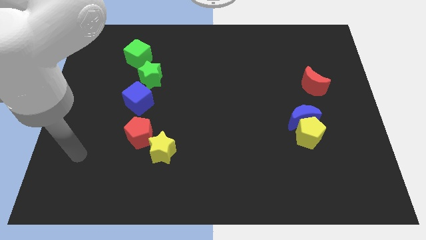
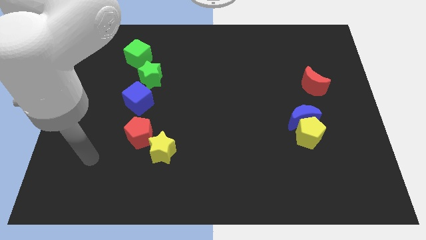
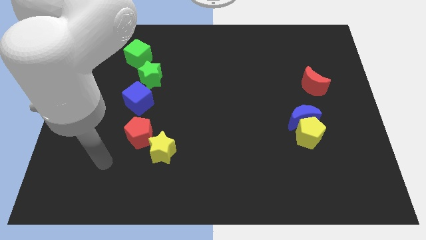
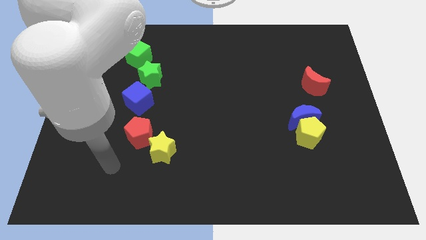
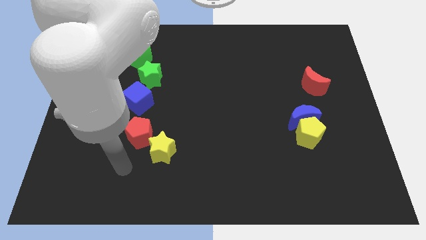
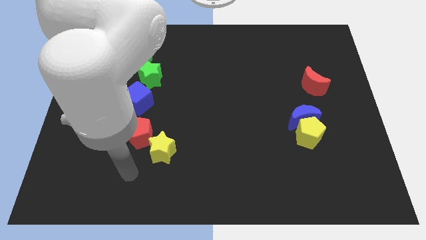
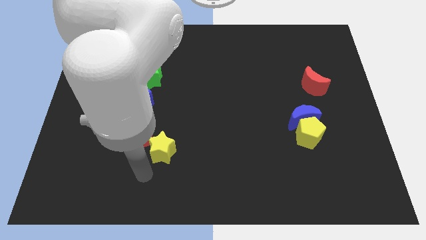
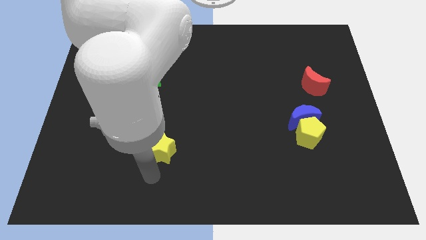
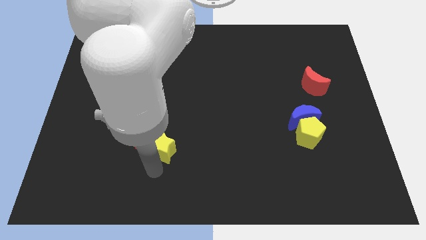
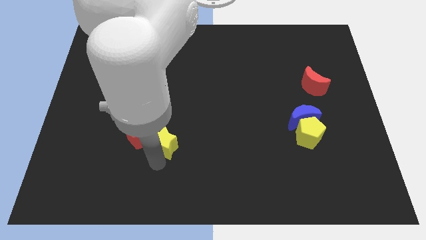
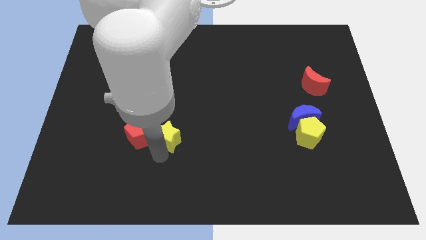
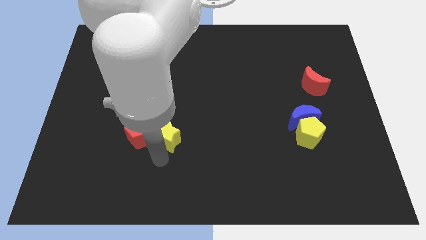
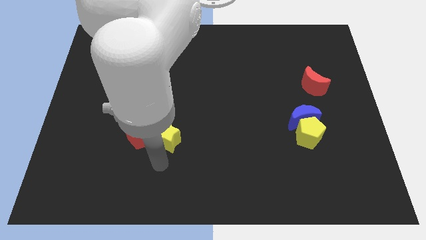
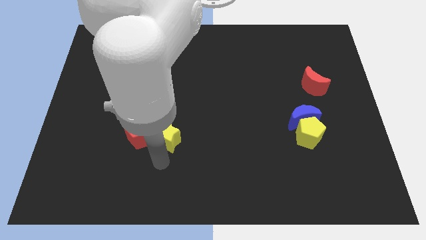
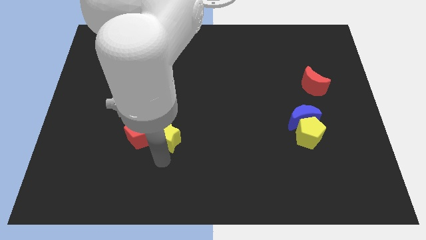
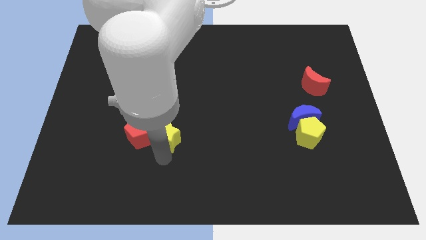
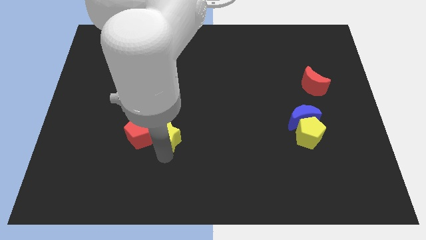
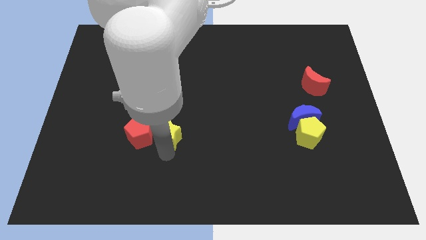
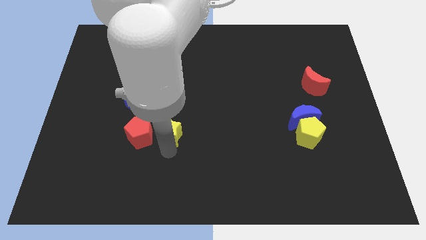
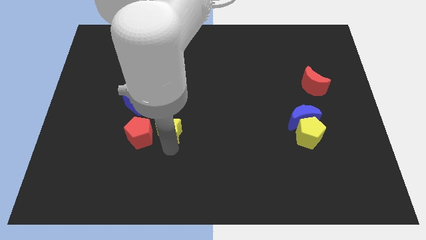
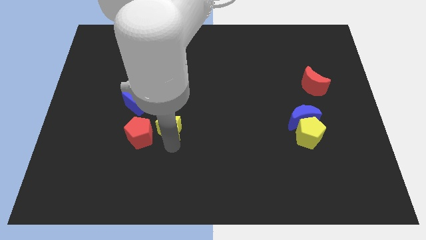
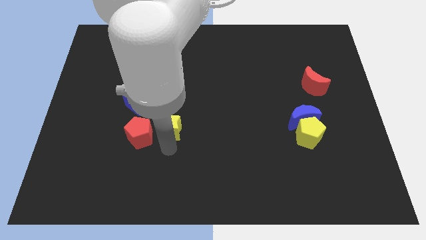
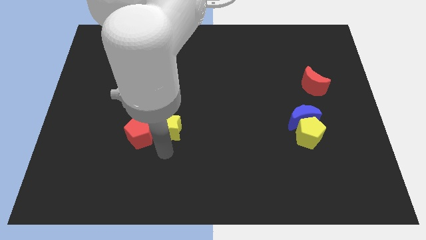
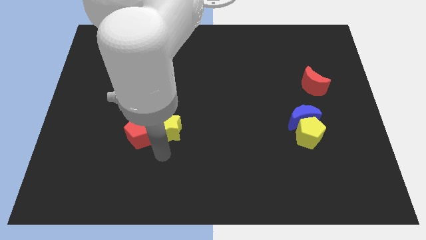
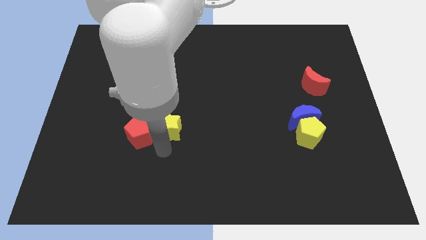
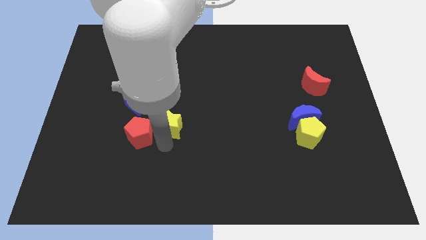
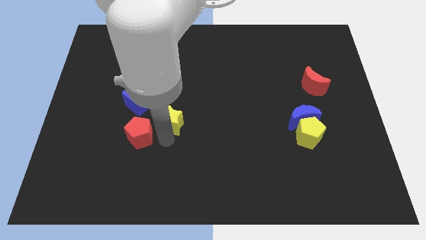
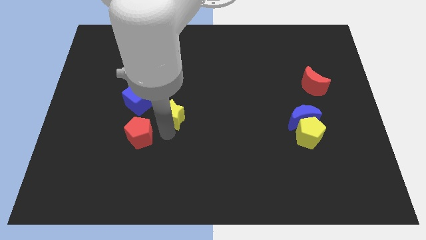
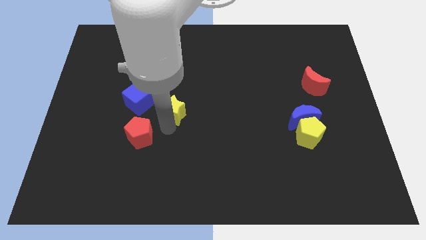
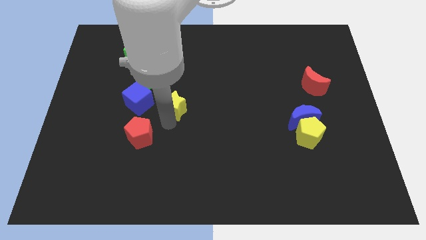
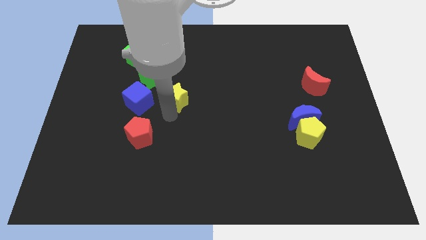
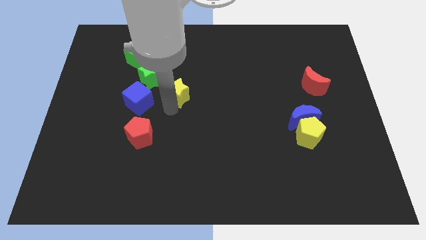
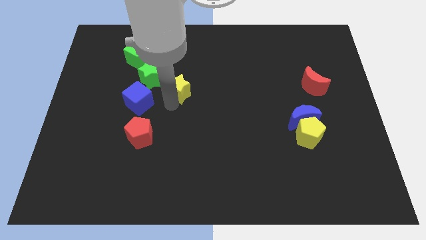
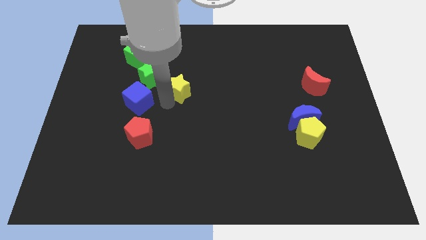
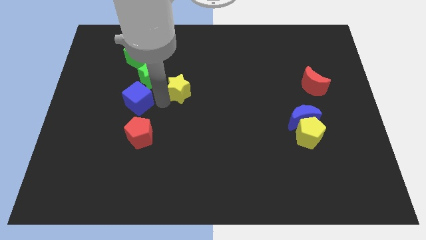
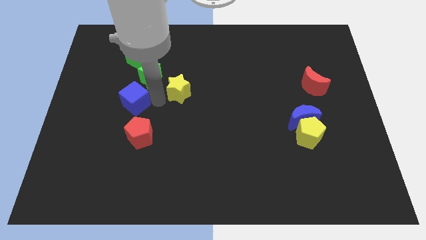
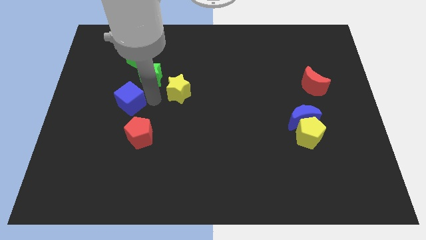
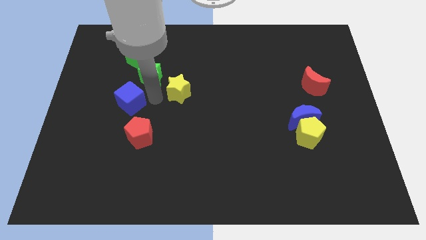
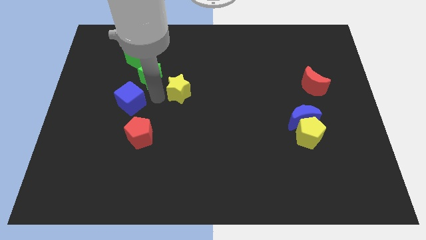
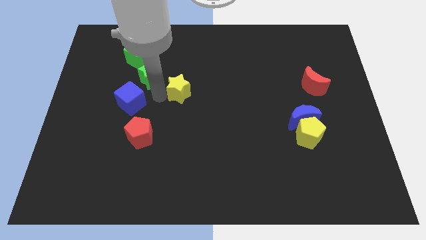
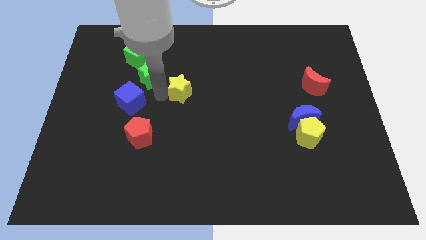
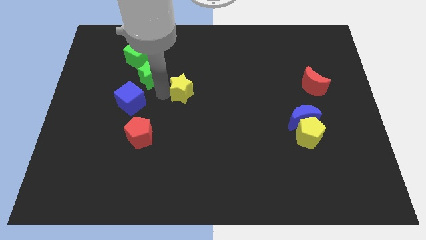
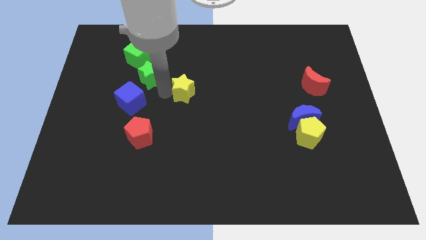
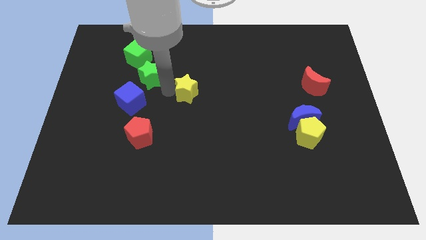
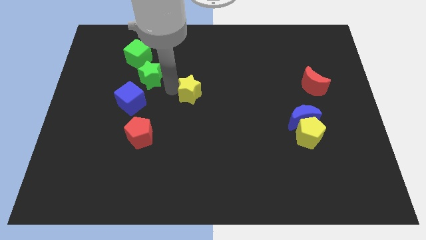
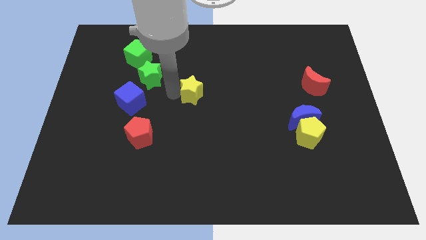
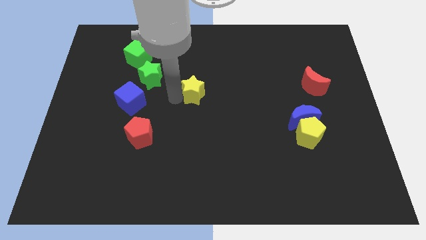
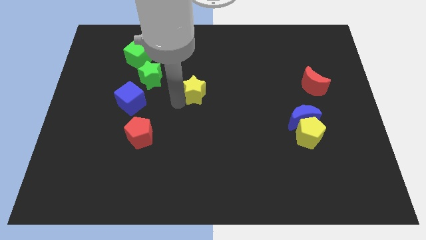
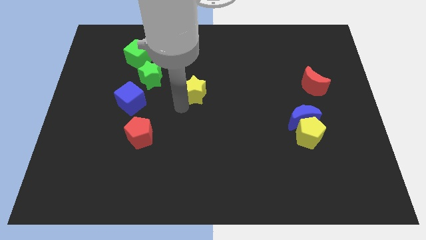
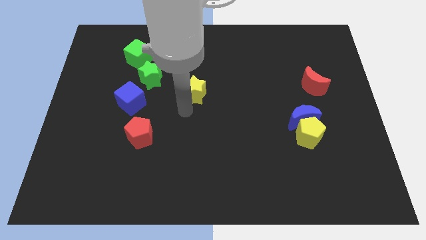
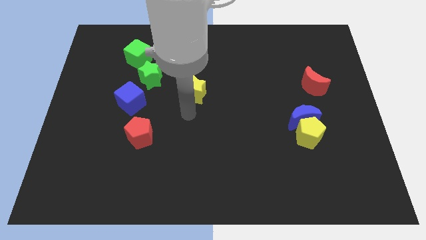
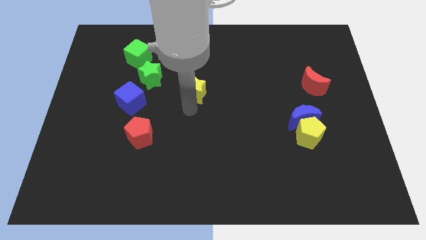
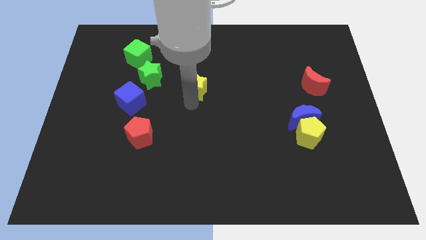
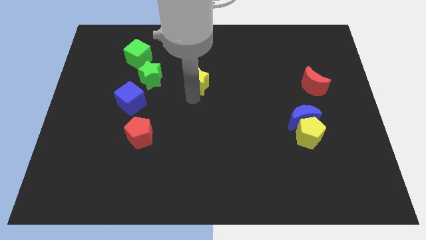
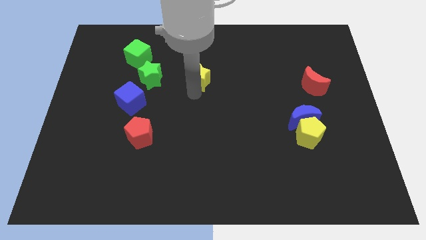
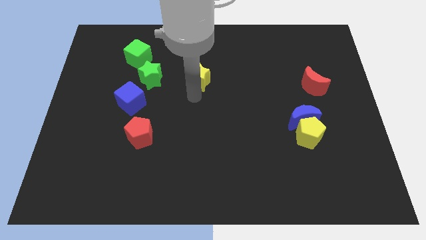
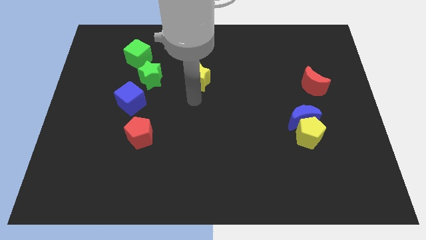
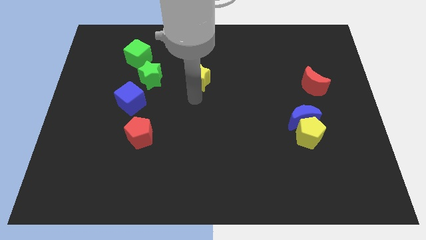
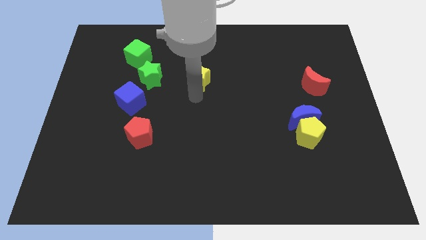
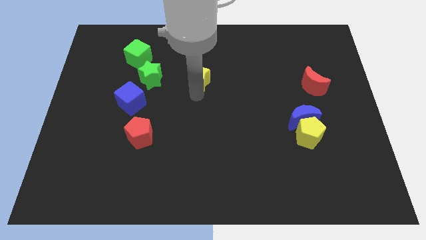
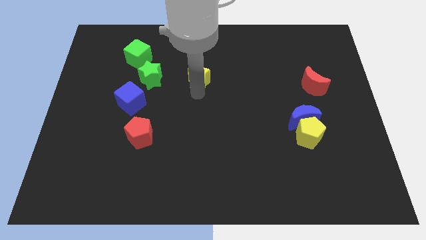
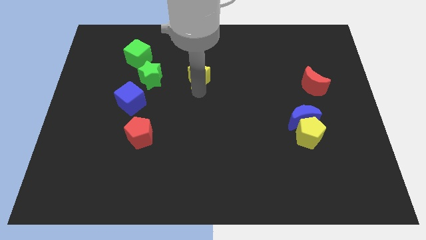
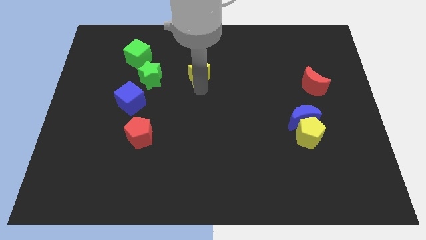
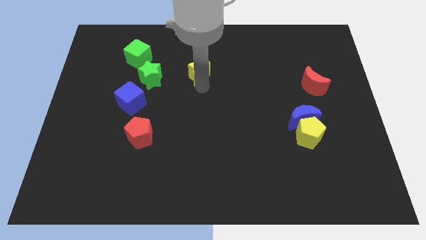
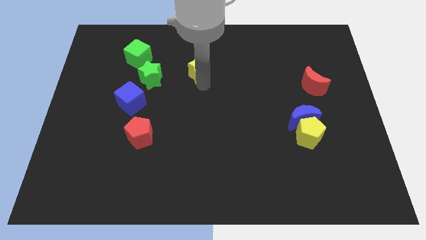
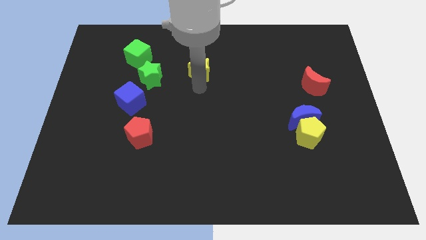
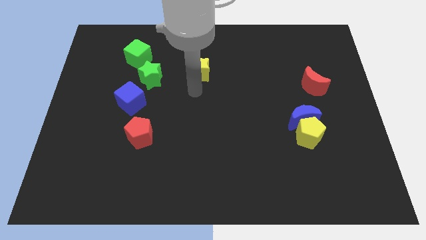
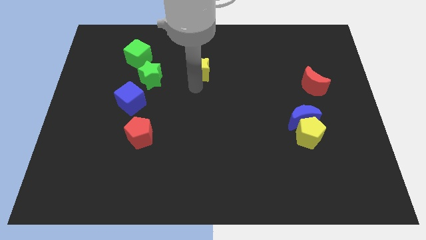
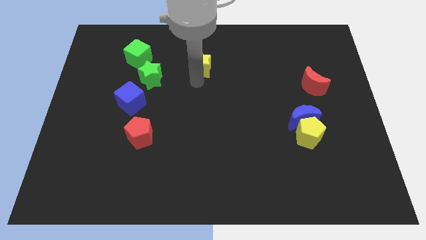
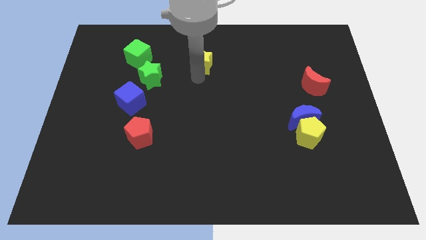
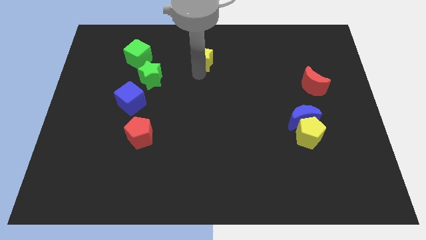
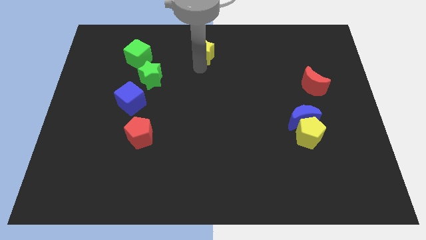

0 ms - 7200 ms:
put the yellow star to the top
